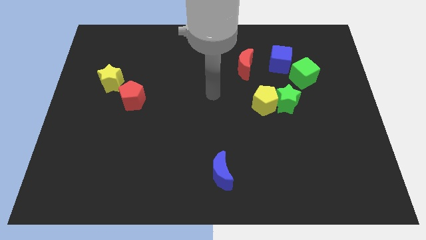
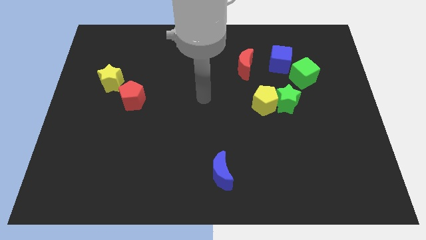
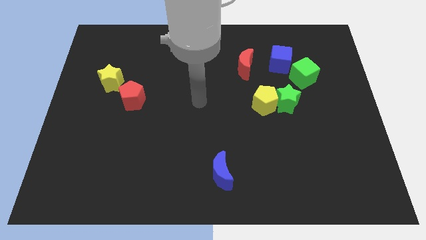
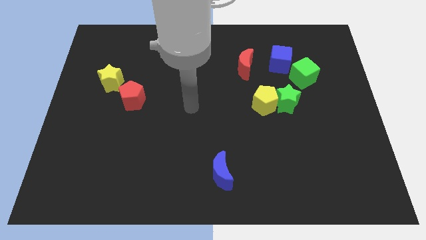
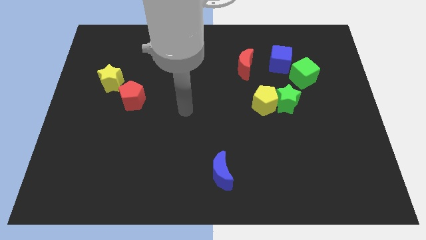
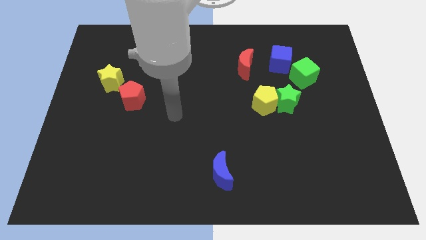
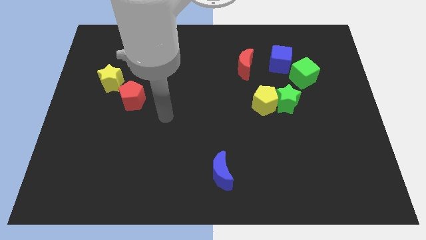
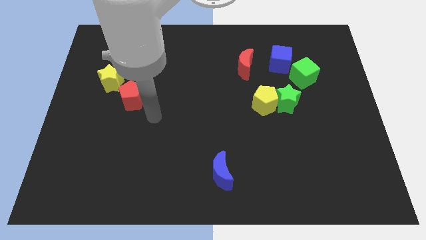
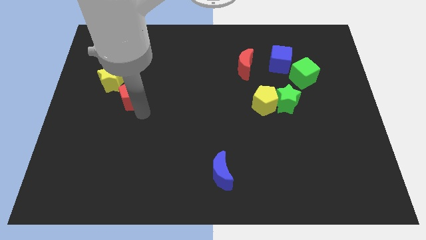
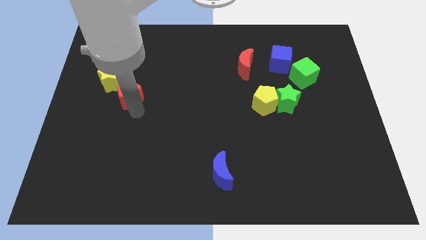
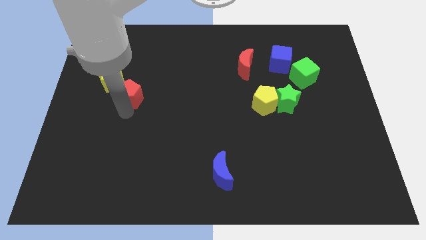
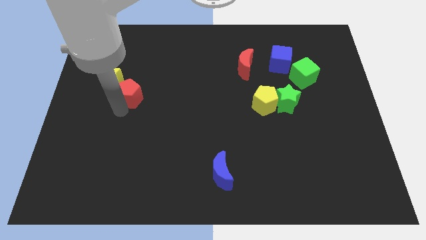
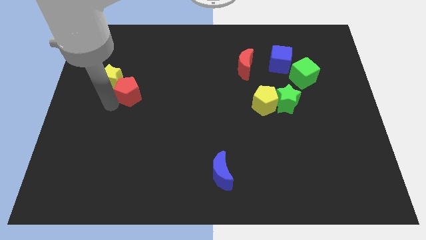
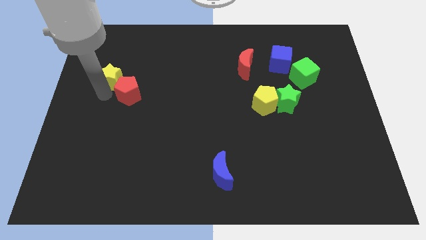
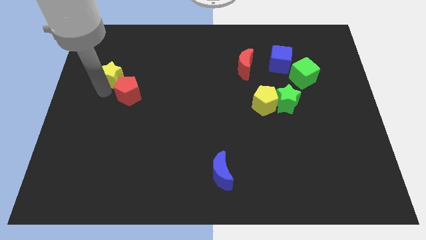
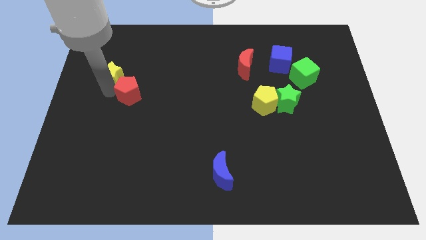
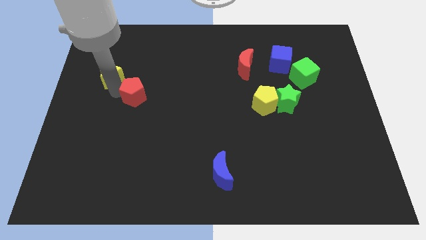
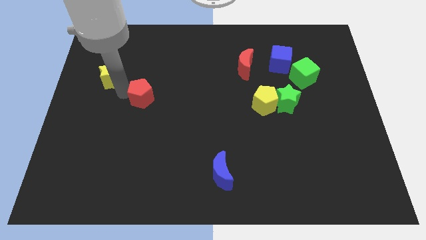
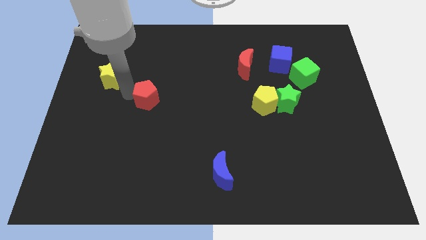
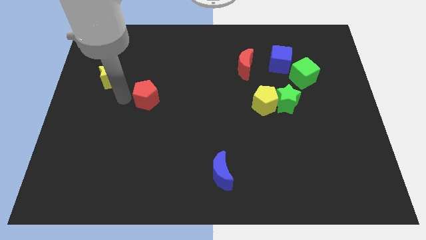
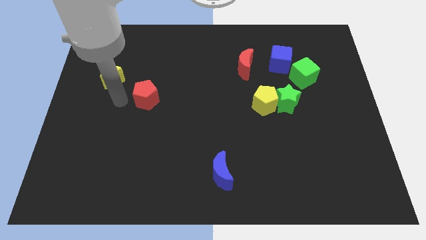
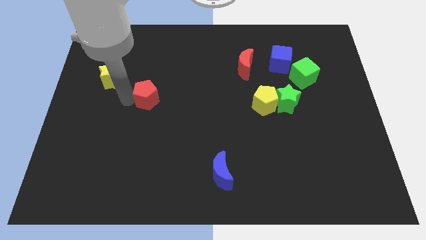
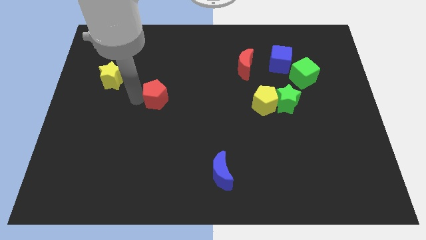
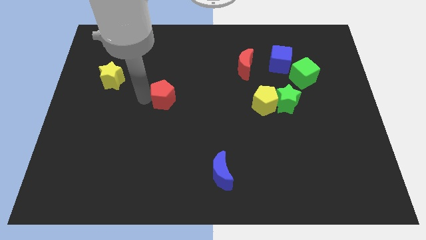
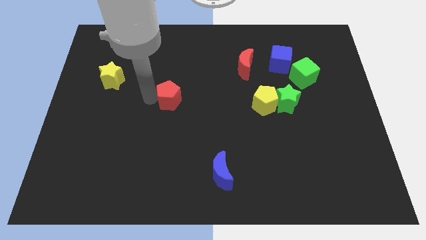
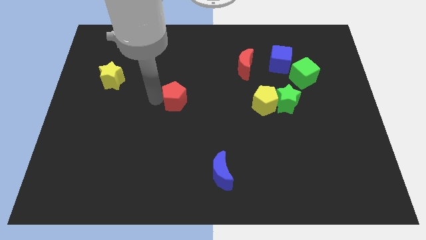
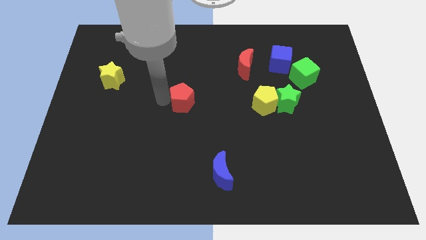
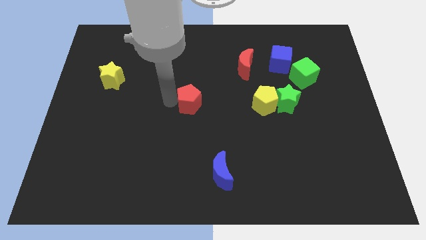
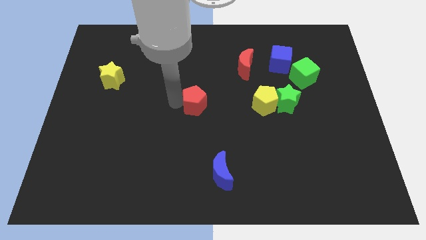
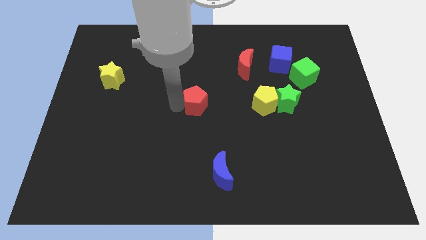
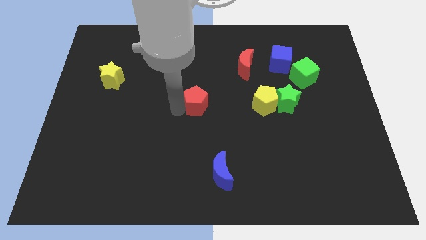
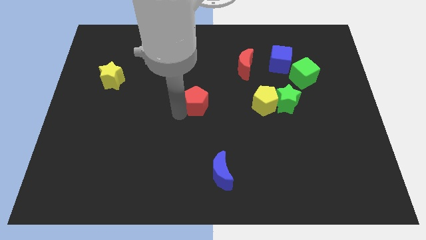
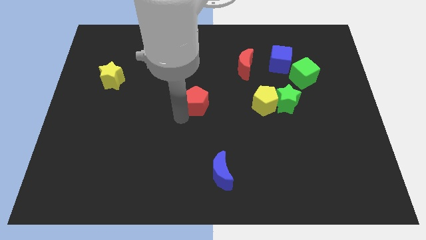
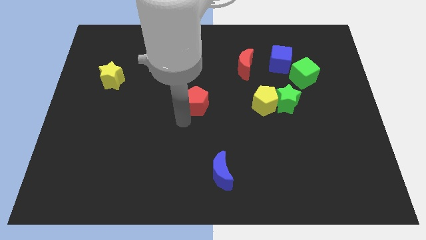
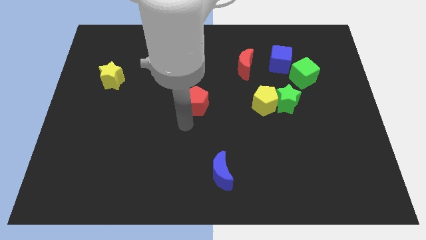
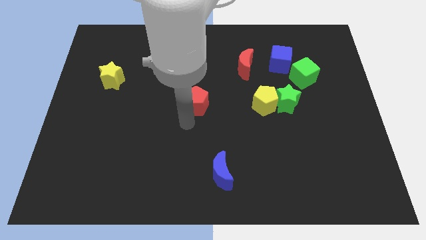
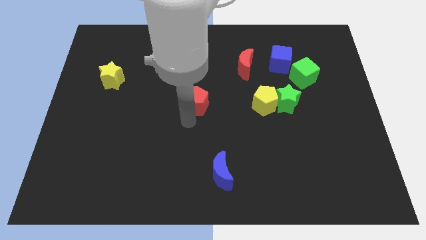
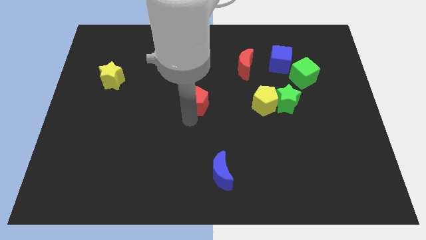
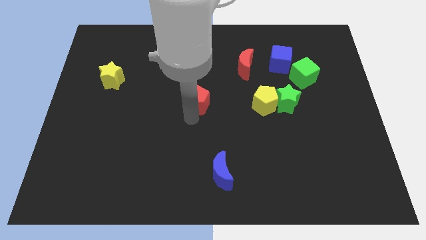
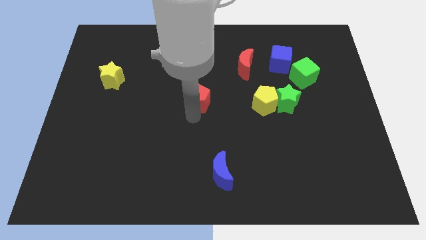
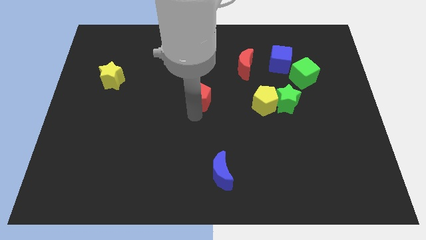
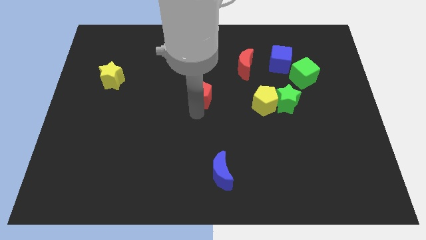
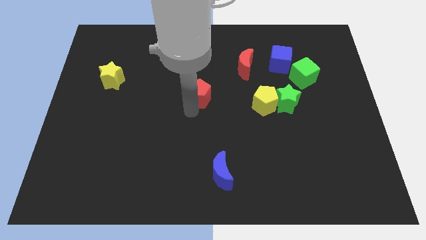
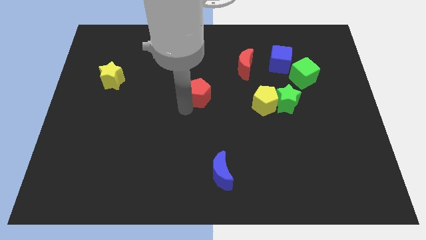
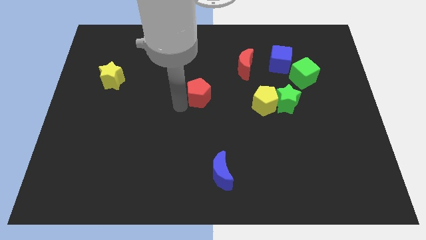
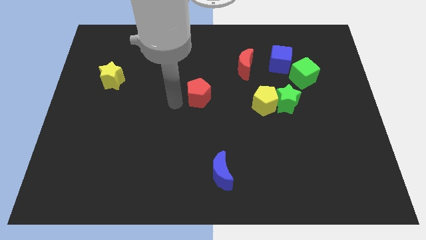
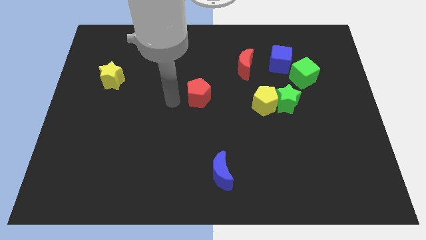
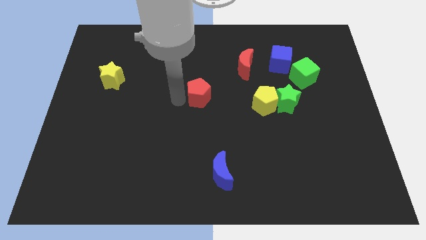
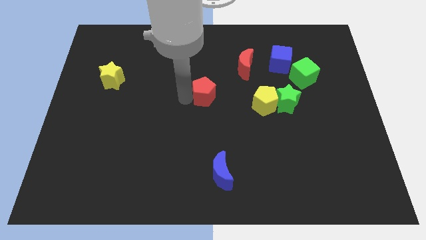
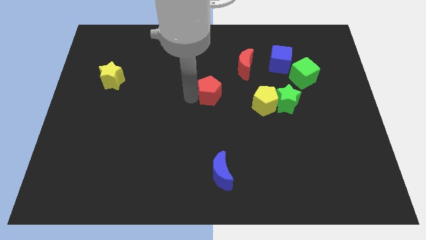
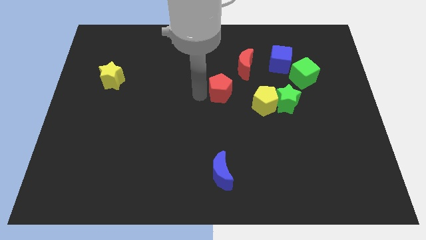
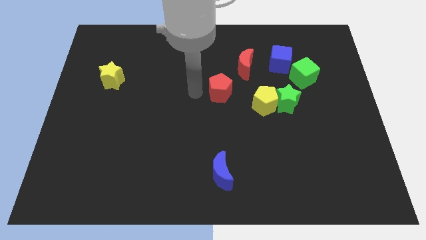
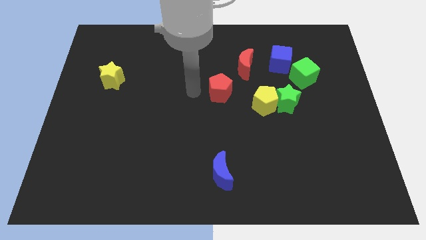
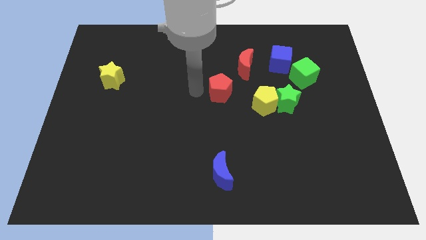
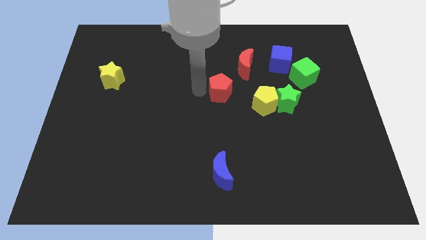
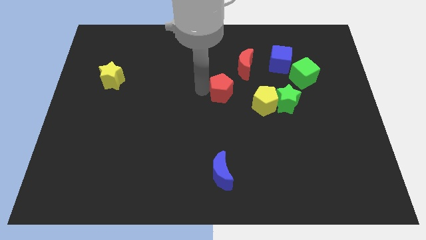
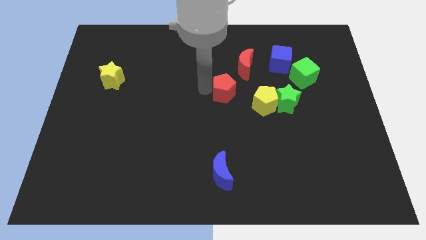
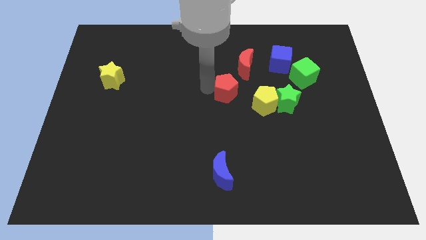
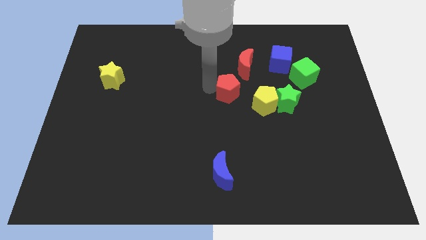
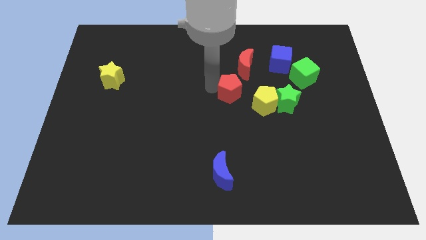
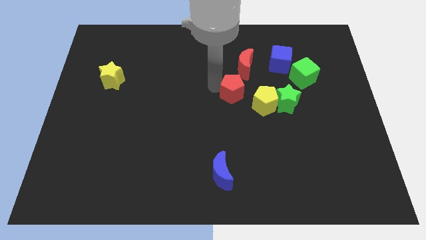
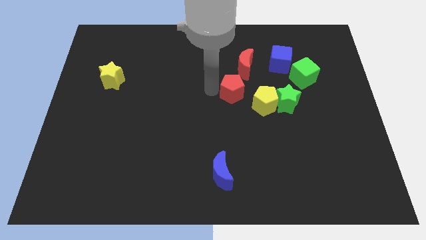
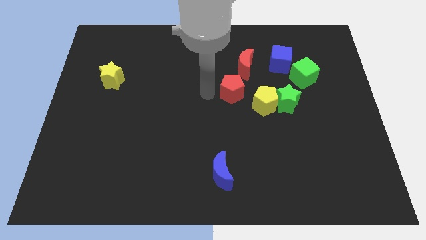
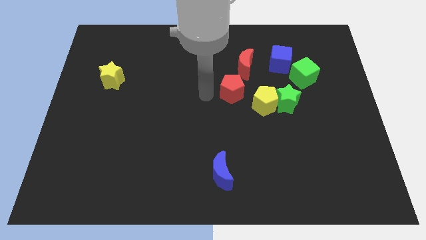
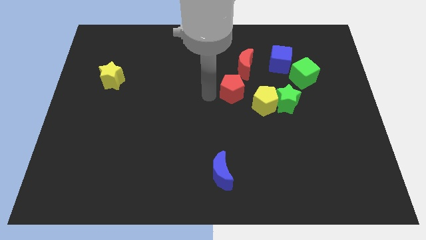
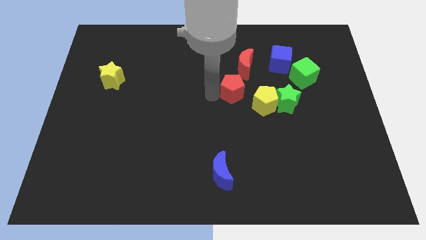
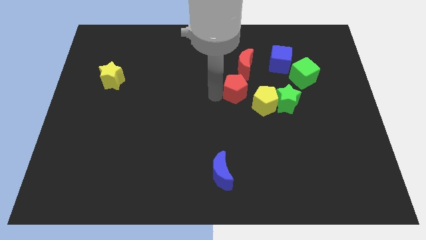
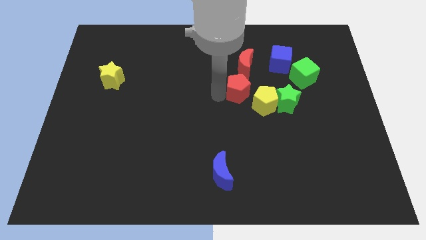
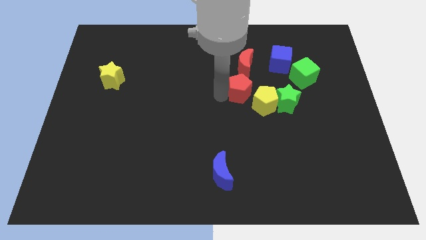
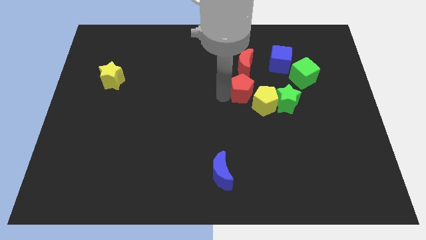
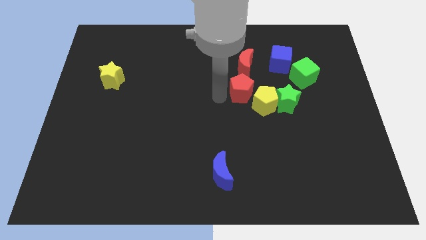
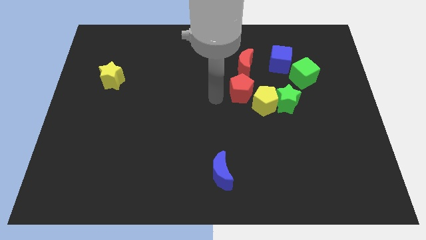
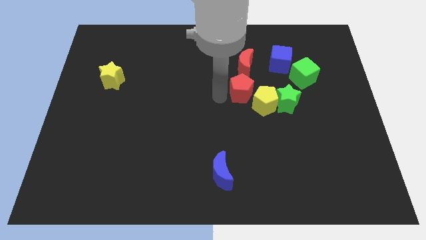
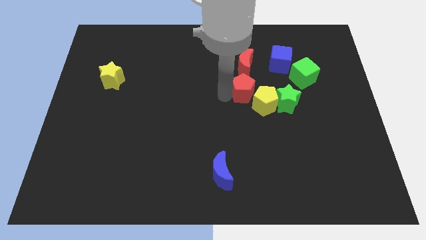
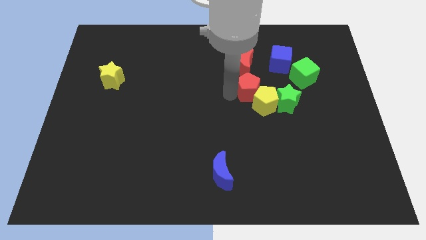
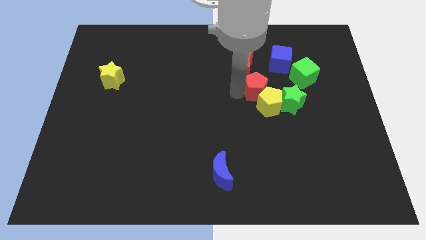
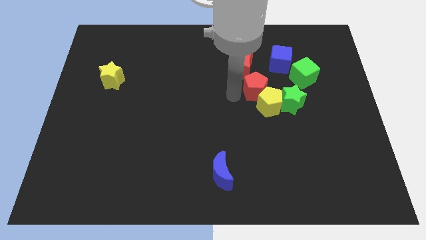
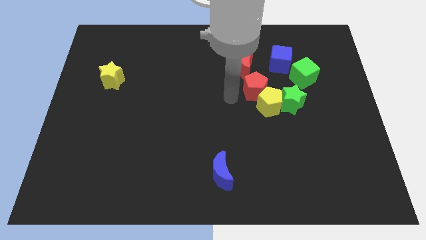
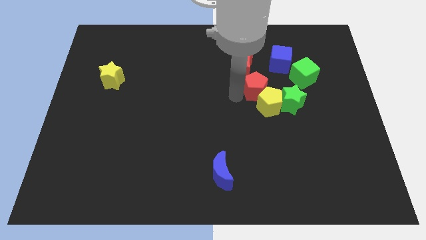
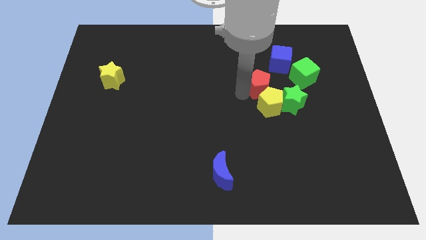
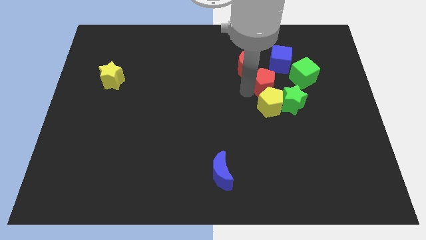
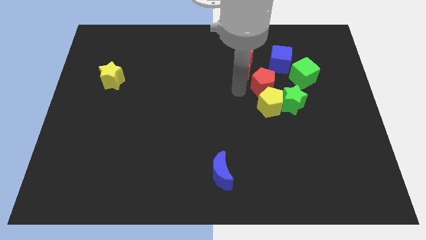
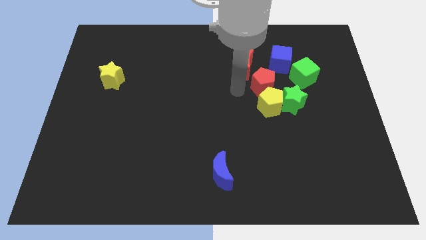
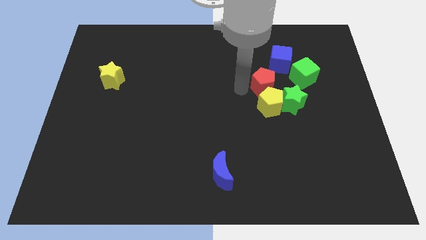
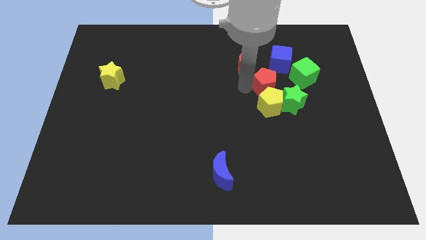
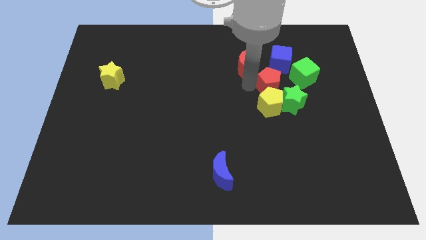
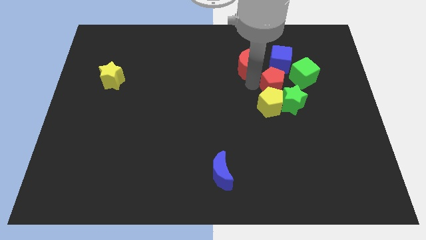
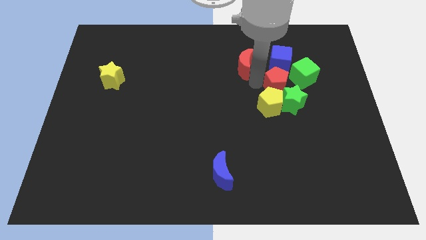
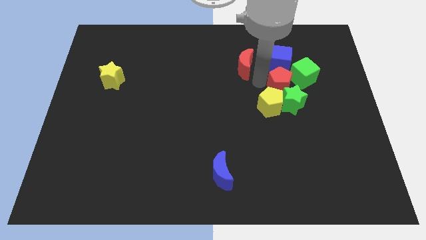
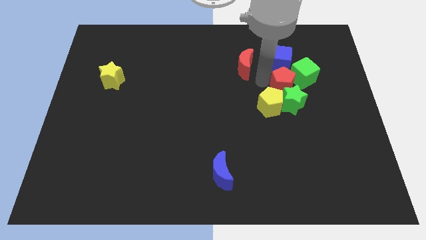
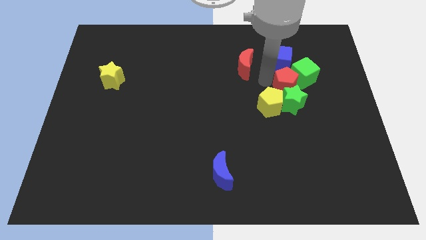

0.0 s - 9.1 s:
move the red pentagon next to the green cube
